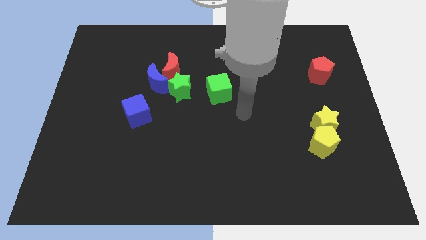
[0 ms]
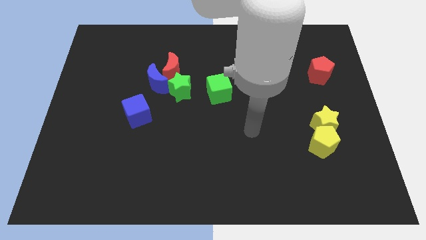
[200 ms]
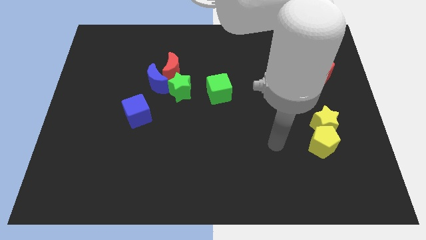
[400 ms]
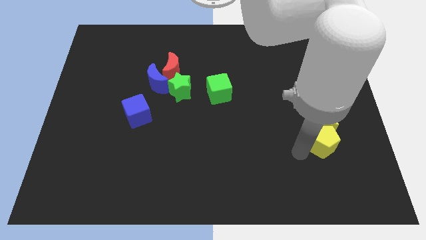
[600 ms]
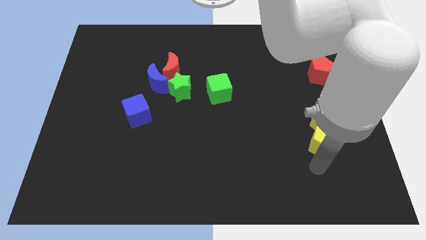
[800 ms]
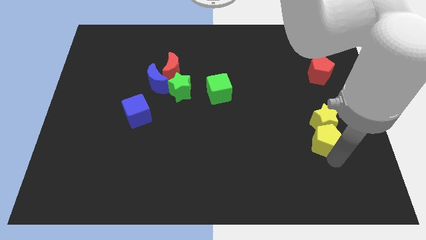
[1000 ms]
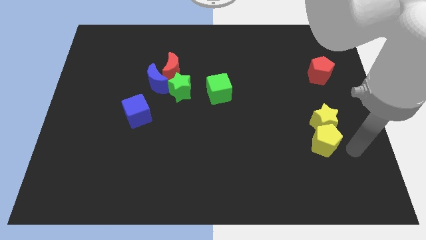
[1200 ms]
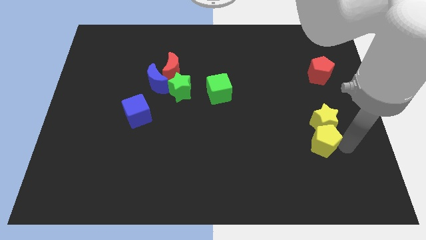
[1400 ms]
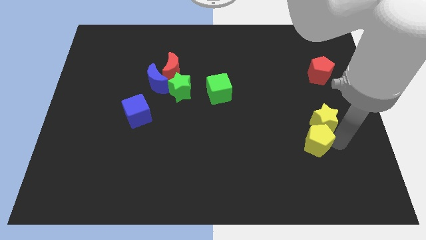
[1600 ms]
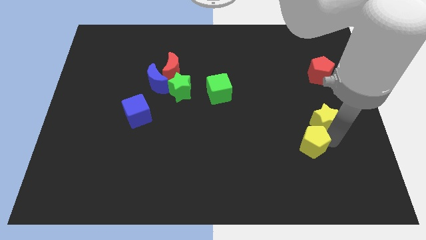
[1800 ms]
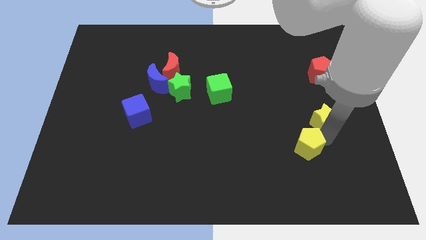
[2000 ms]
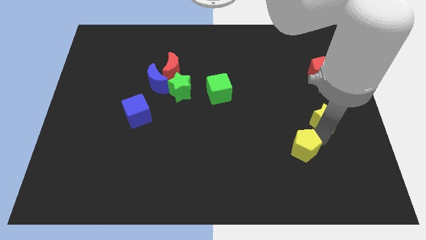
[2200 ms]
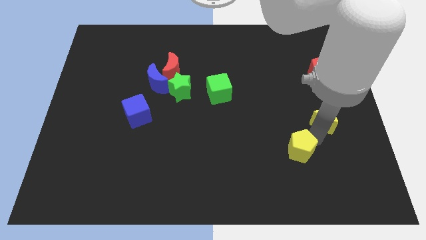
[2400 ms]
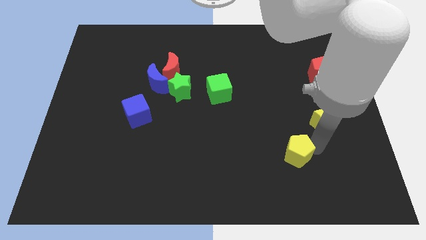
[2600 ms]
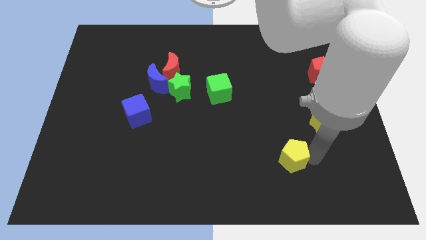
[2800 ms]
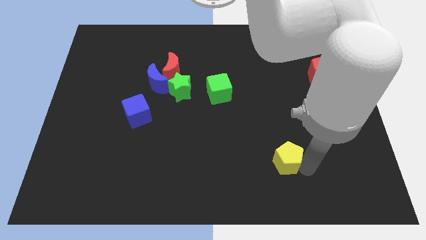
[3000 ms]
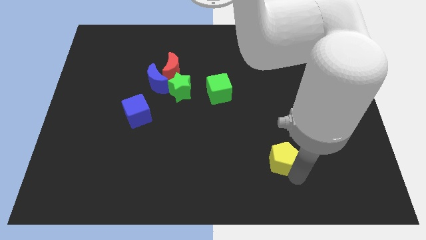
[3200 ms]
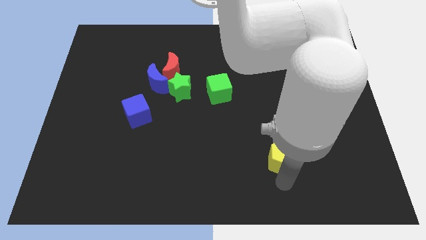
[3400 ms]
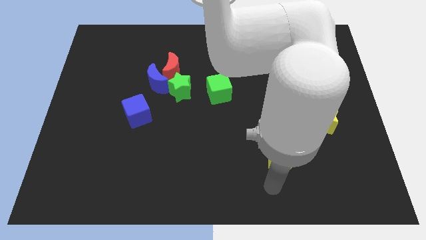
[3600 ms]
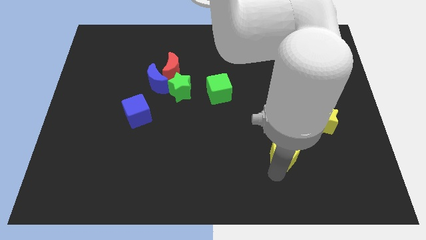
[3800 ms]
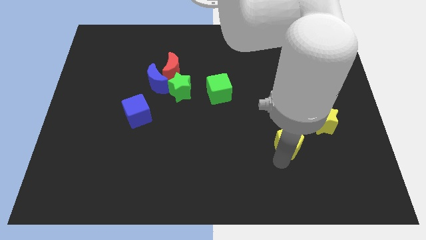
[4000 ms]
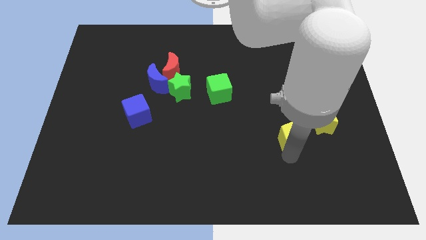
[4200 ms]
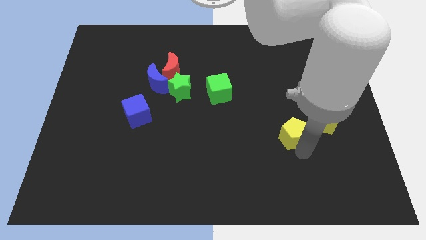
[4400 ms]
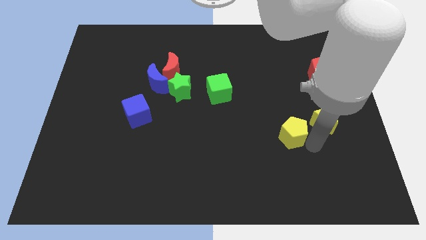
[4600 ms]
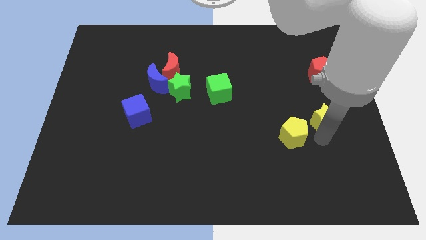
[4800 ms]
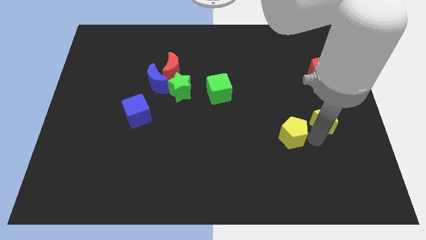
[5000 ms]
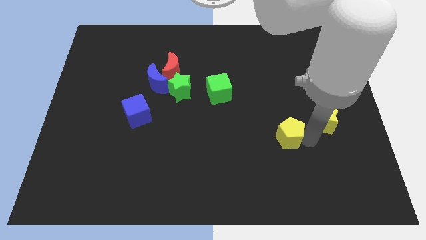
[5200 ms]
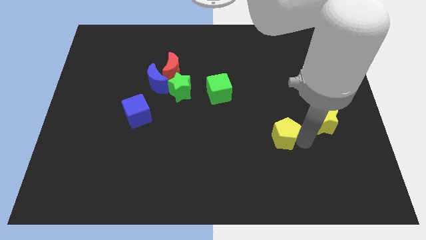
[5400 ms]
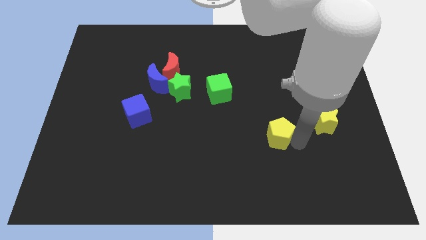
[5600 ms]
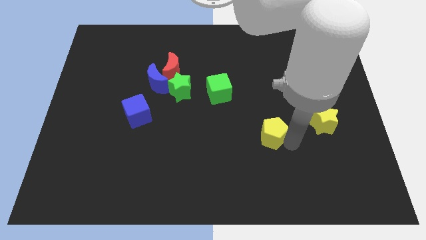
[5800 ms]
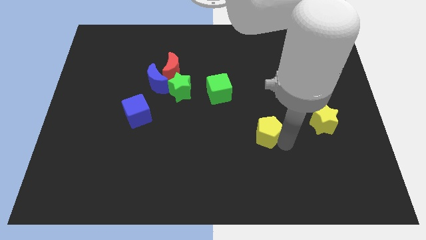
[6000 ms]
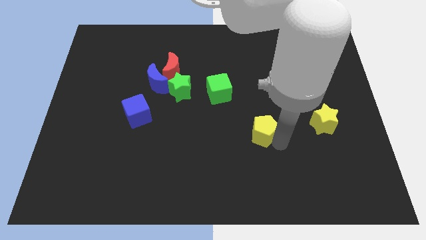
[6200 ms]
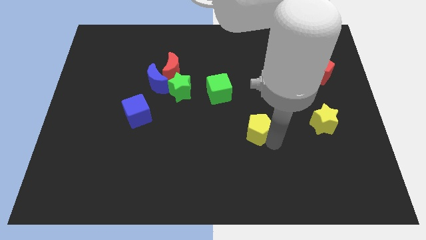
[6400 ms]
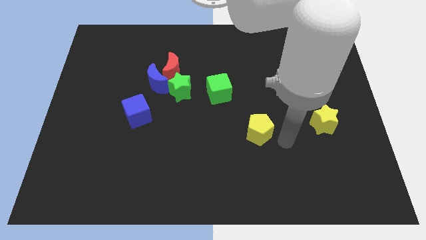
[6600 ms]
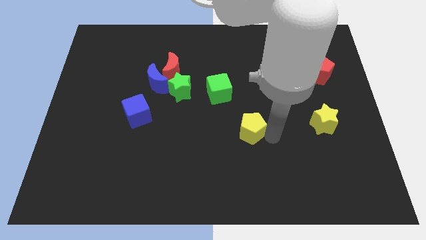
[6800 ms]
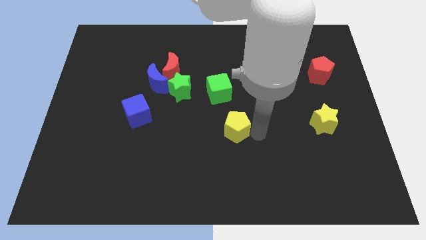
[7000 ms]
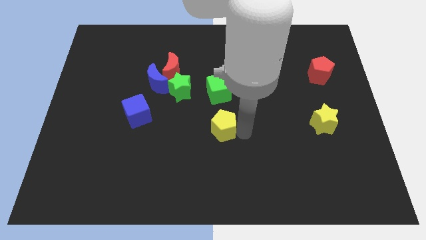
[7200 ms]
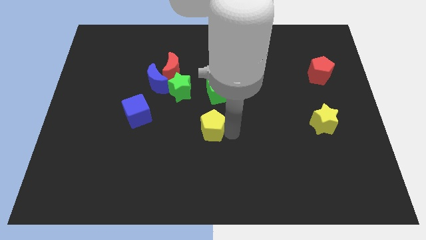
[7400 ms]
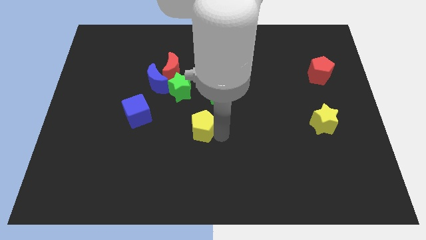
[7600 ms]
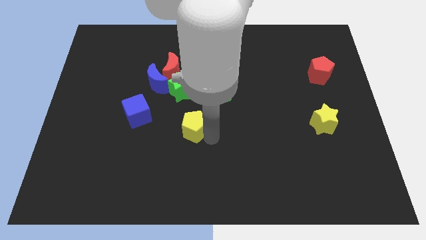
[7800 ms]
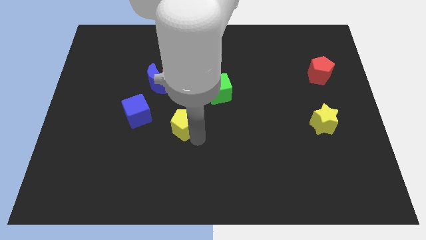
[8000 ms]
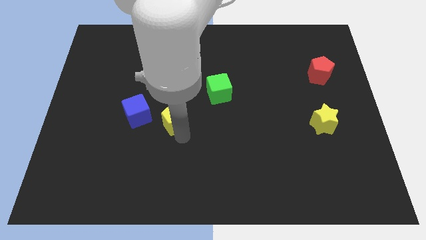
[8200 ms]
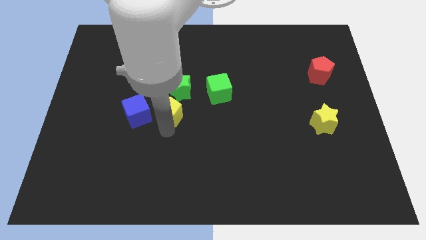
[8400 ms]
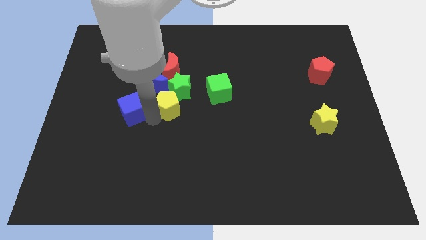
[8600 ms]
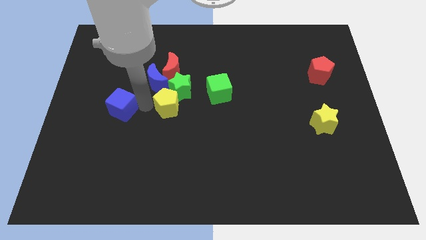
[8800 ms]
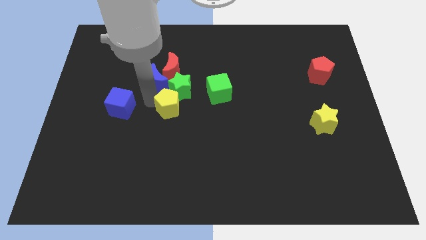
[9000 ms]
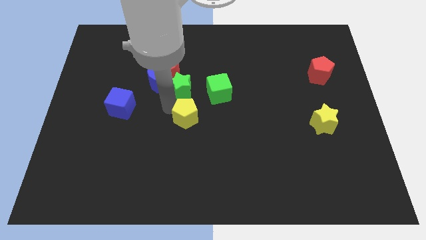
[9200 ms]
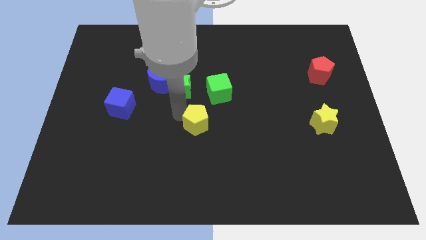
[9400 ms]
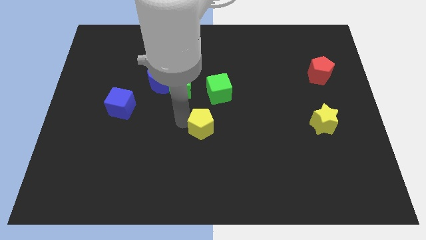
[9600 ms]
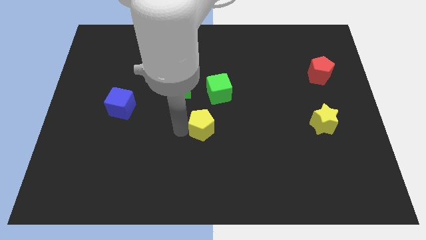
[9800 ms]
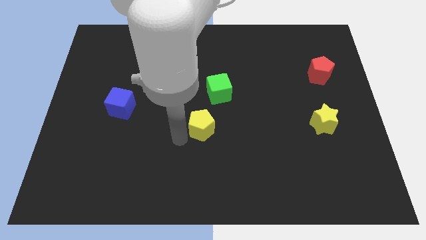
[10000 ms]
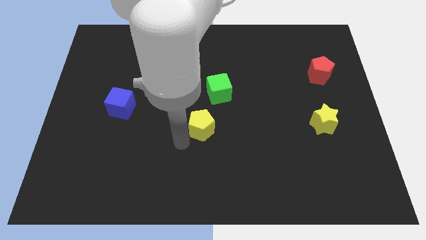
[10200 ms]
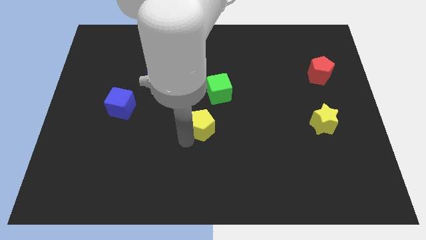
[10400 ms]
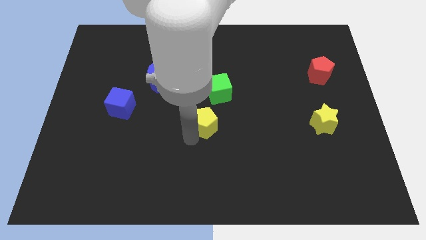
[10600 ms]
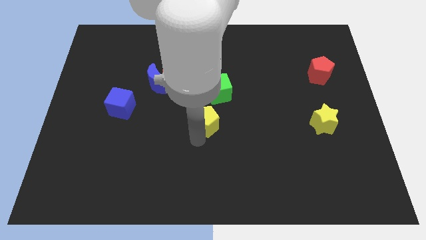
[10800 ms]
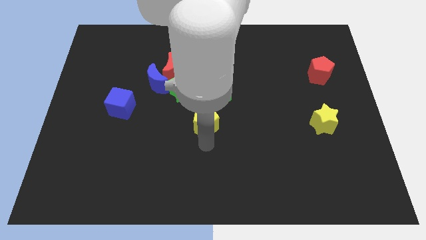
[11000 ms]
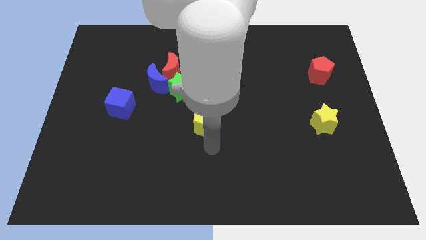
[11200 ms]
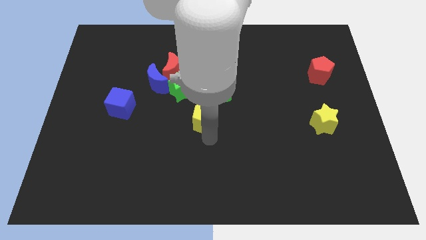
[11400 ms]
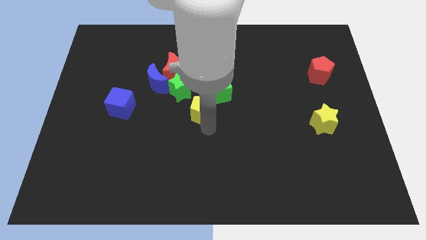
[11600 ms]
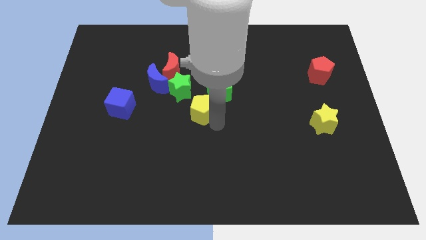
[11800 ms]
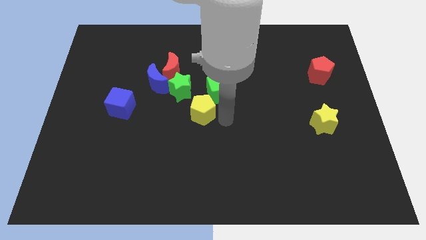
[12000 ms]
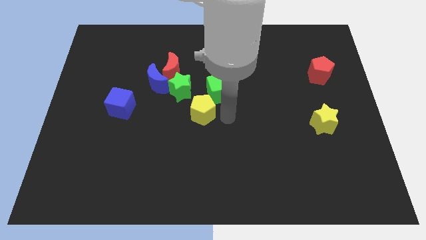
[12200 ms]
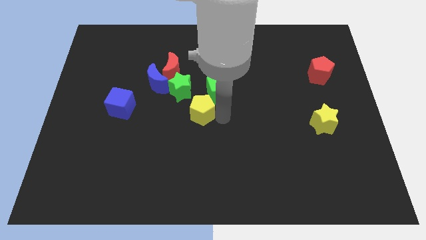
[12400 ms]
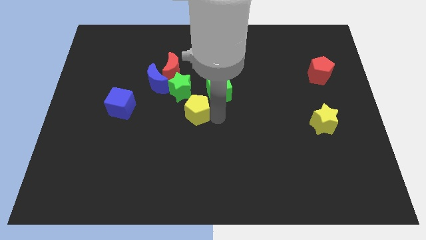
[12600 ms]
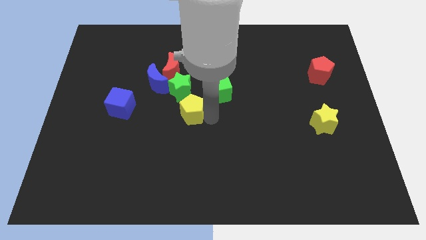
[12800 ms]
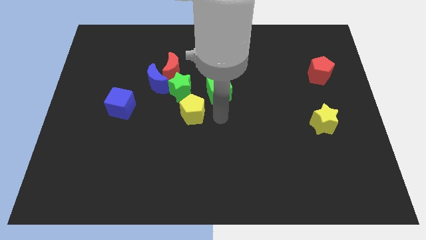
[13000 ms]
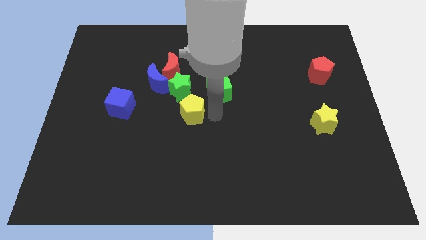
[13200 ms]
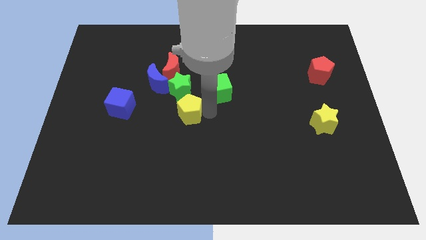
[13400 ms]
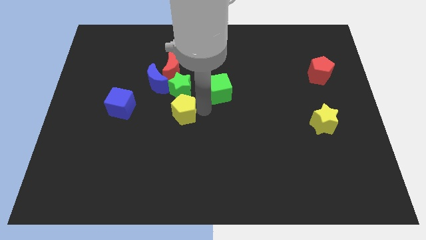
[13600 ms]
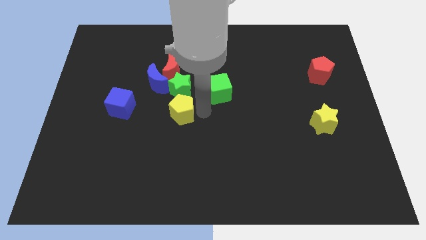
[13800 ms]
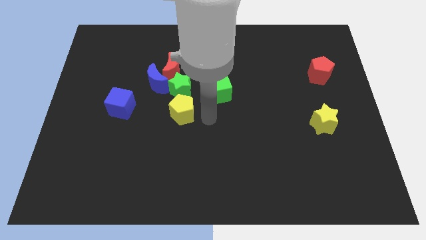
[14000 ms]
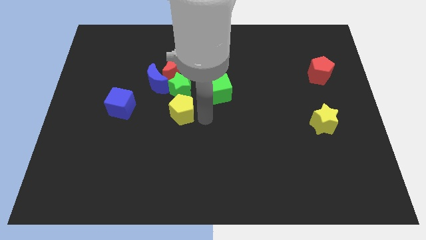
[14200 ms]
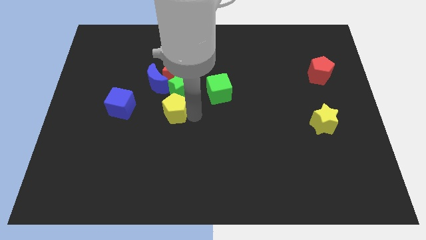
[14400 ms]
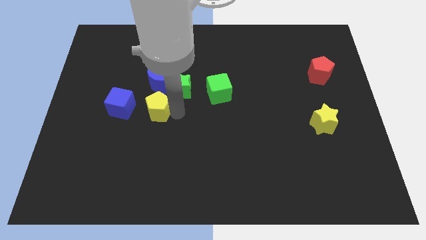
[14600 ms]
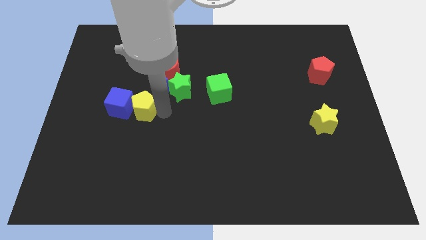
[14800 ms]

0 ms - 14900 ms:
push the yellow pentagon diagonally down and to the left of the blue moon

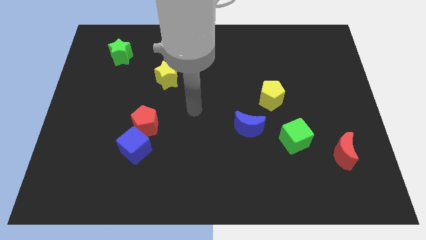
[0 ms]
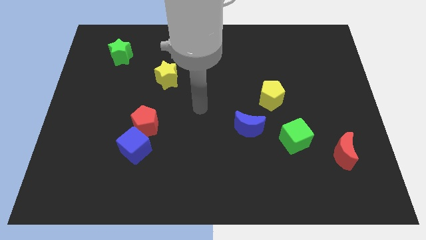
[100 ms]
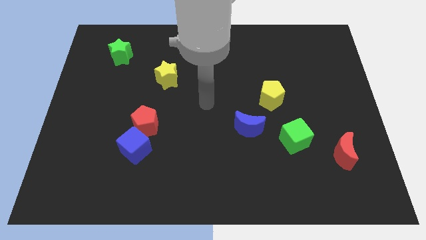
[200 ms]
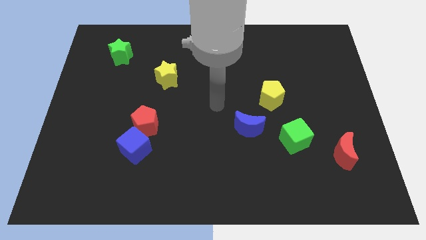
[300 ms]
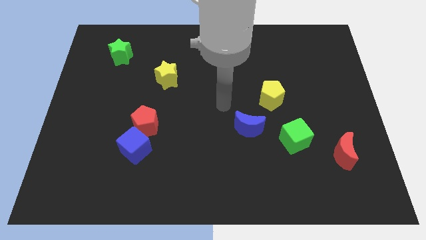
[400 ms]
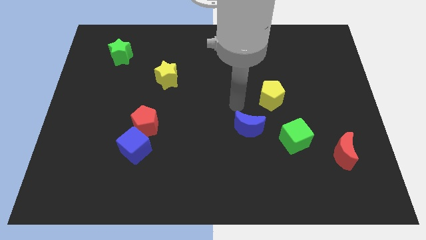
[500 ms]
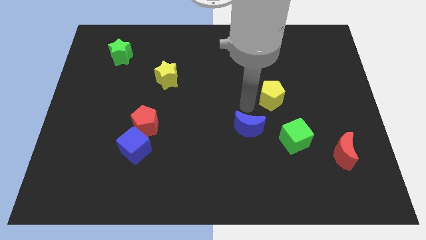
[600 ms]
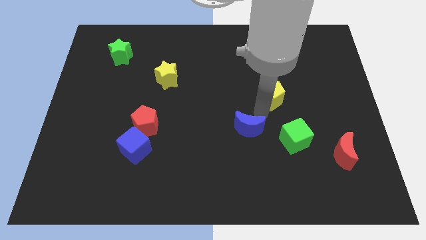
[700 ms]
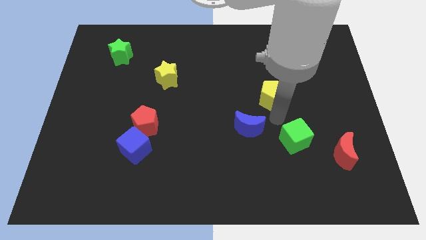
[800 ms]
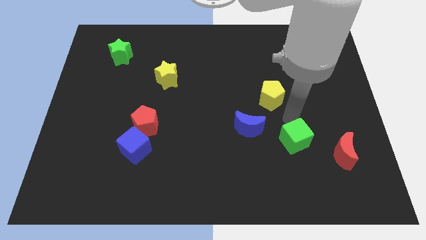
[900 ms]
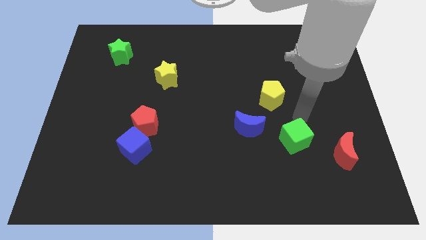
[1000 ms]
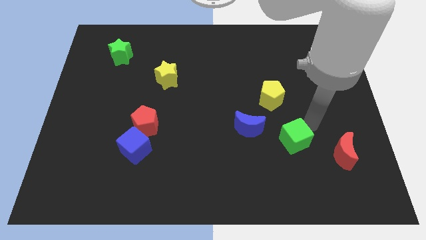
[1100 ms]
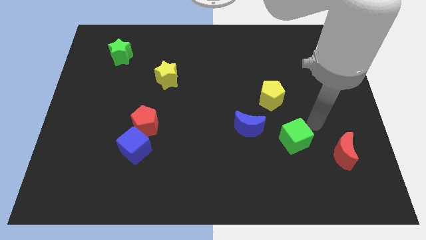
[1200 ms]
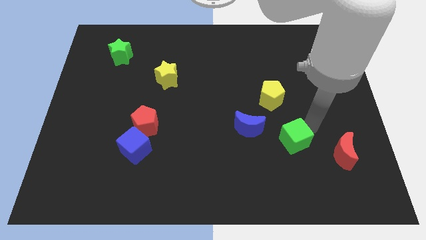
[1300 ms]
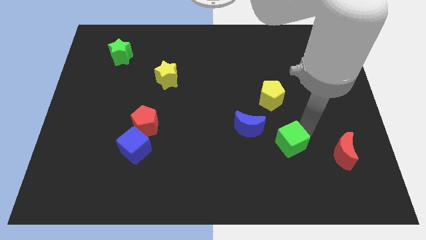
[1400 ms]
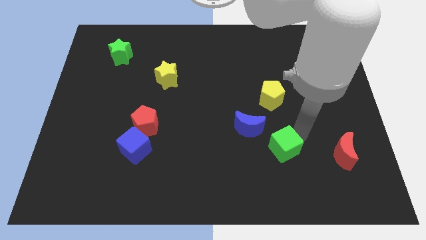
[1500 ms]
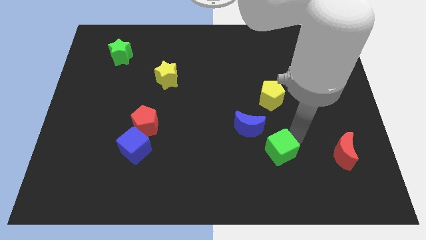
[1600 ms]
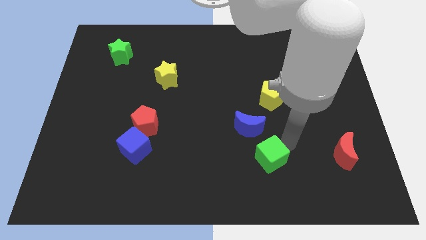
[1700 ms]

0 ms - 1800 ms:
slide the green cube to the bottom side of the blue moon
